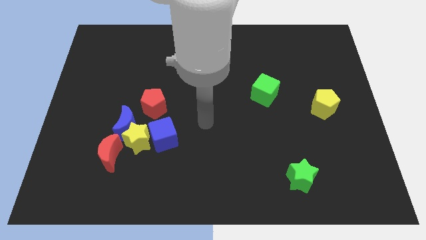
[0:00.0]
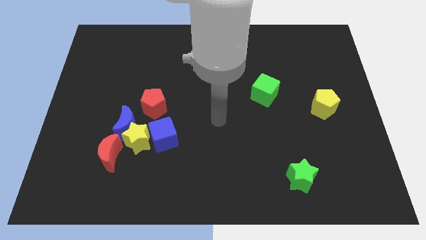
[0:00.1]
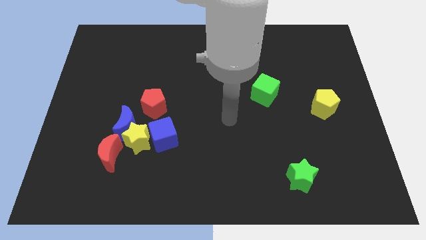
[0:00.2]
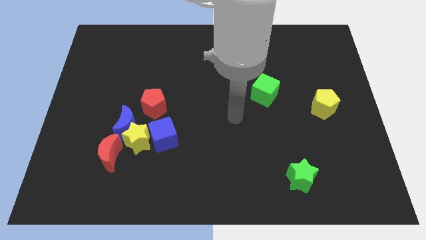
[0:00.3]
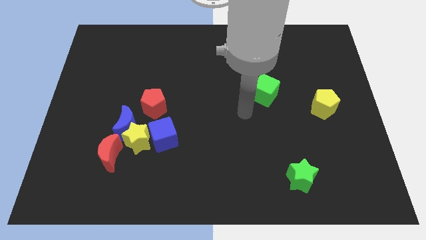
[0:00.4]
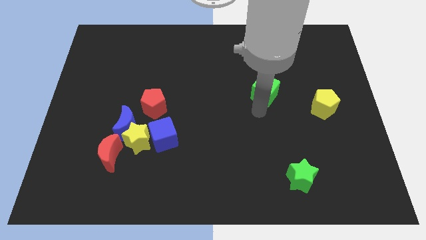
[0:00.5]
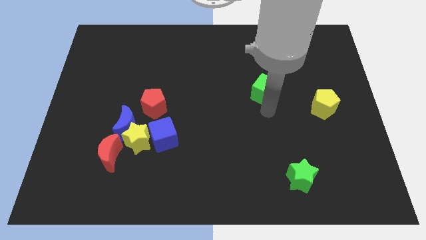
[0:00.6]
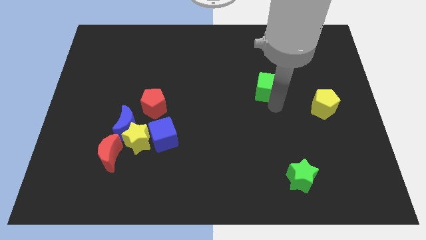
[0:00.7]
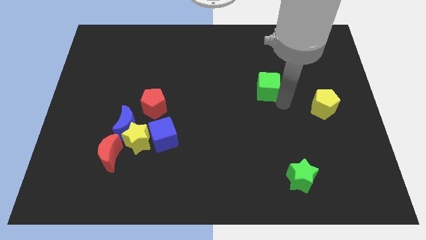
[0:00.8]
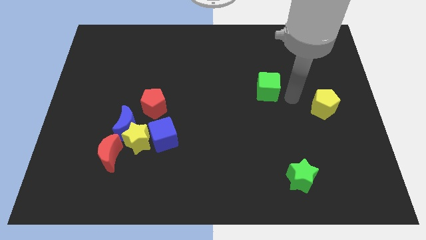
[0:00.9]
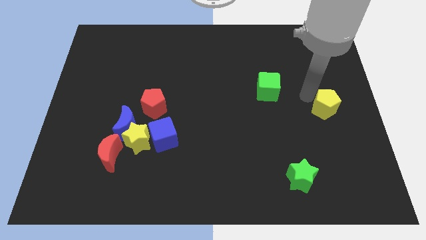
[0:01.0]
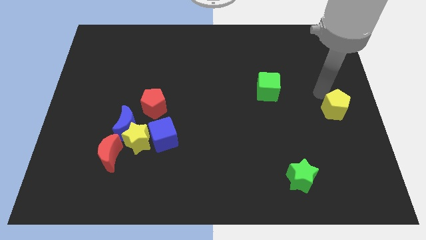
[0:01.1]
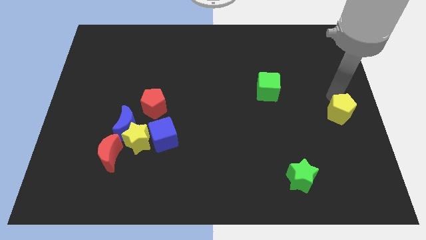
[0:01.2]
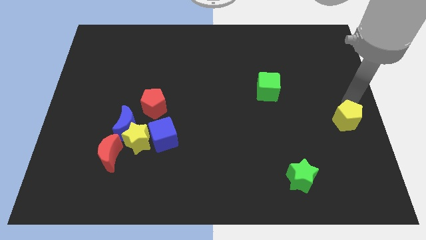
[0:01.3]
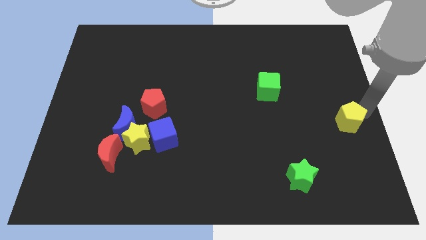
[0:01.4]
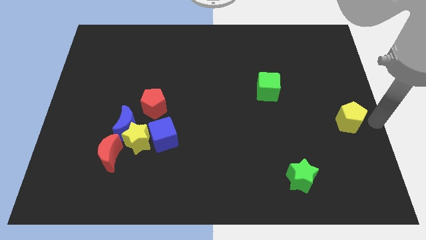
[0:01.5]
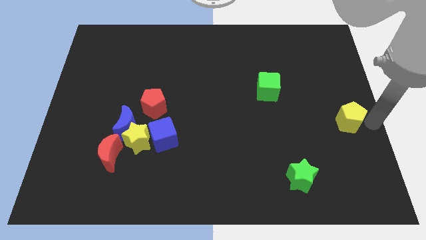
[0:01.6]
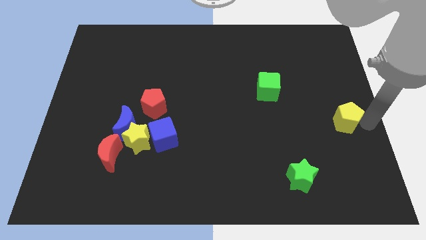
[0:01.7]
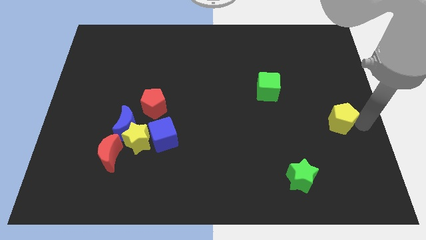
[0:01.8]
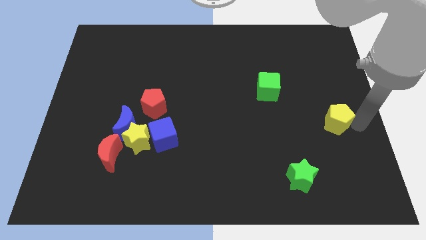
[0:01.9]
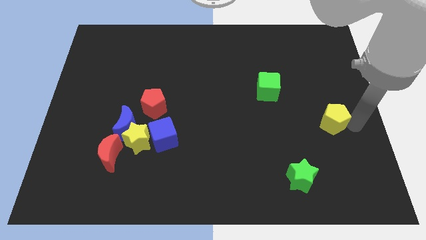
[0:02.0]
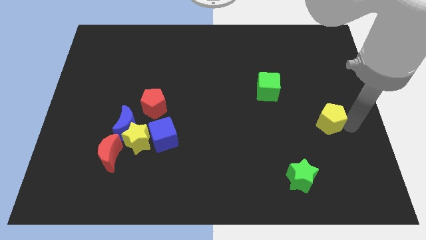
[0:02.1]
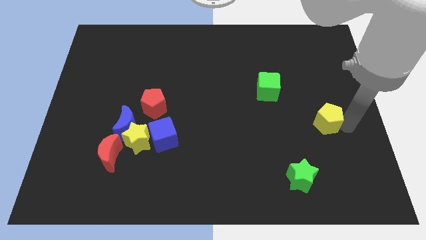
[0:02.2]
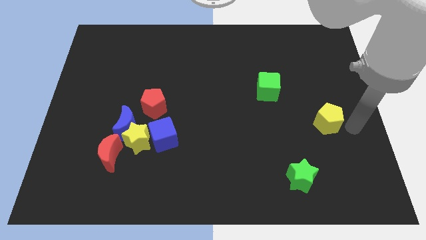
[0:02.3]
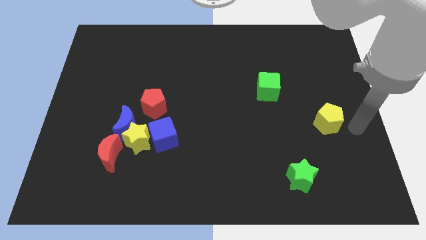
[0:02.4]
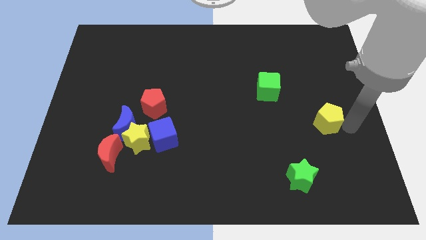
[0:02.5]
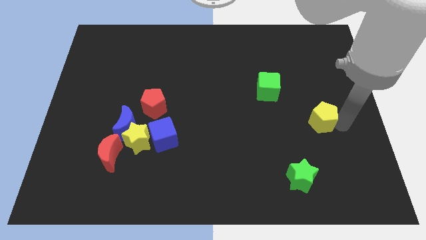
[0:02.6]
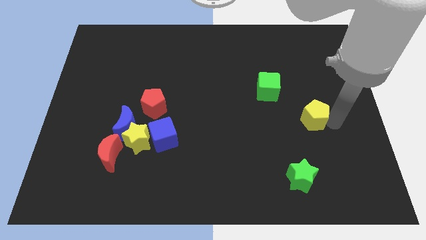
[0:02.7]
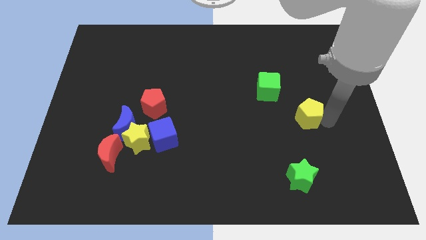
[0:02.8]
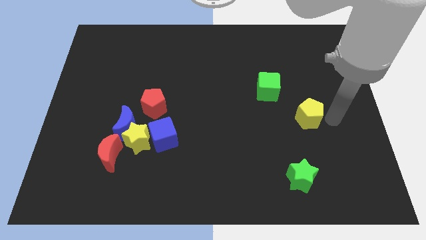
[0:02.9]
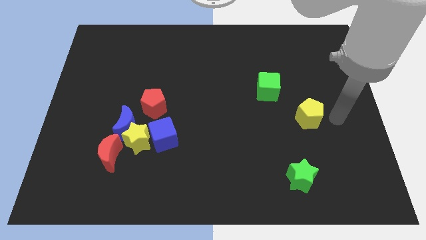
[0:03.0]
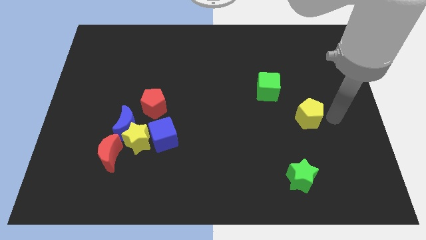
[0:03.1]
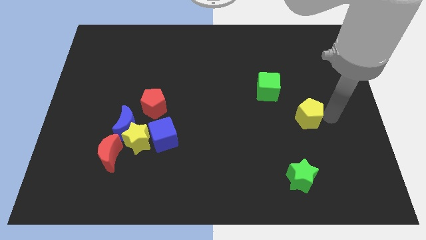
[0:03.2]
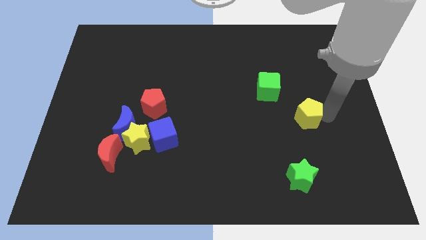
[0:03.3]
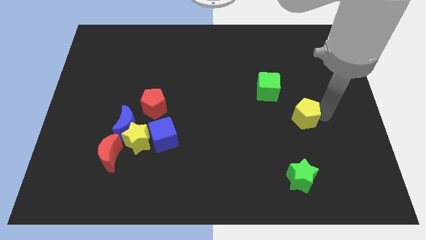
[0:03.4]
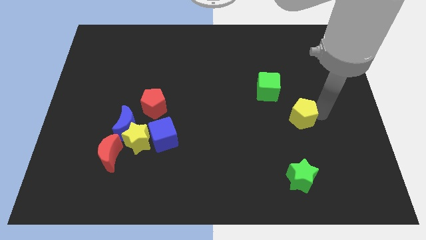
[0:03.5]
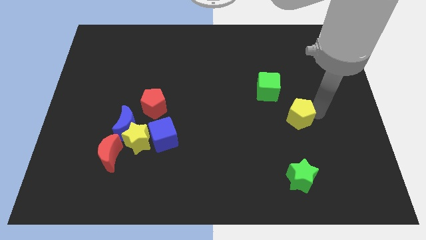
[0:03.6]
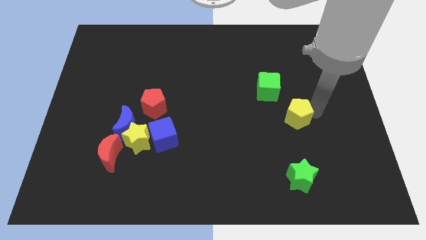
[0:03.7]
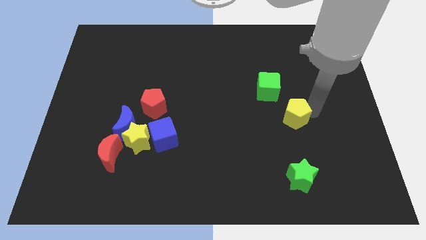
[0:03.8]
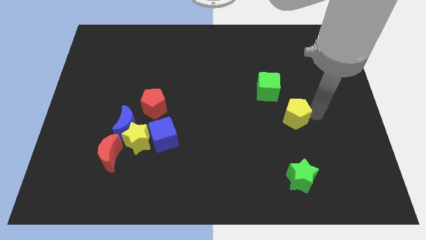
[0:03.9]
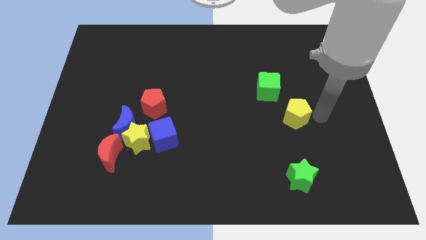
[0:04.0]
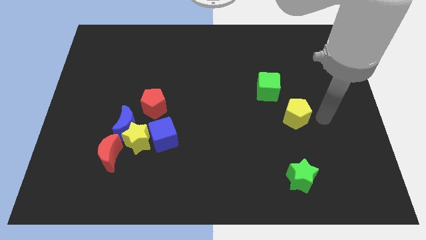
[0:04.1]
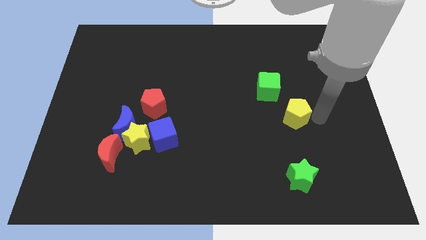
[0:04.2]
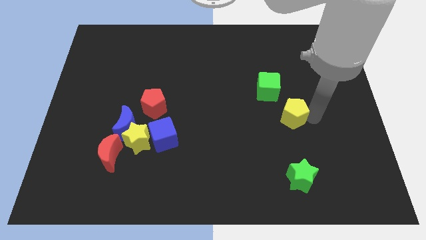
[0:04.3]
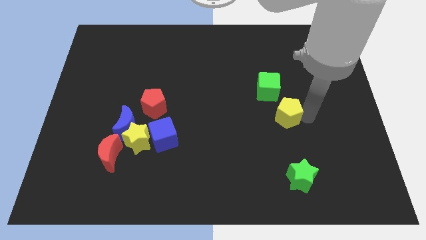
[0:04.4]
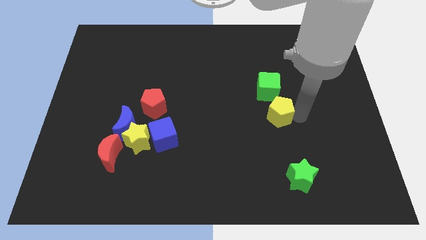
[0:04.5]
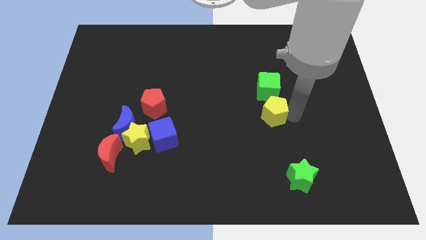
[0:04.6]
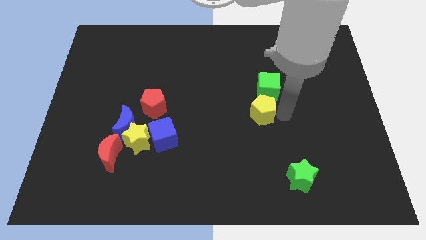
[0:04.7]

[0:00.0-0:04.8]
put the yellow pentagon to the middle

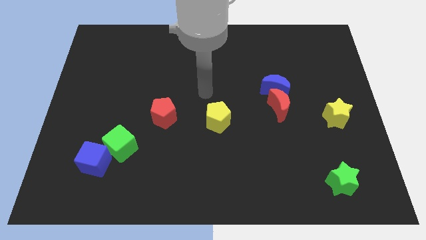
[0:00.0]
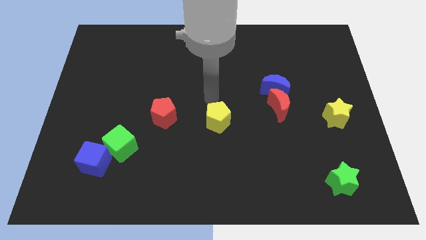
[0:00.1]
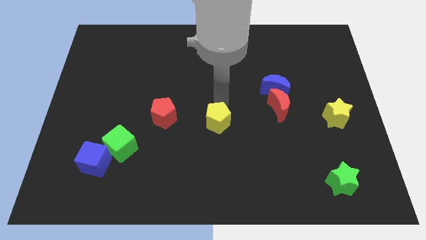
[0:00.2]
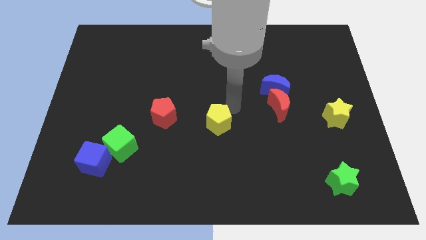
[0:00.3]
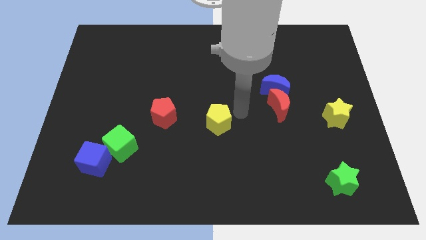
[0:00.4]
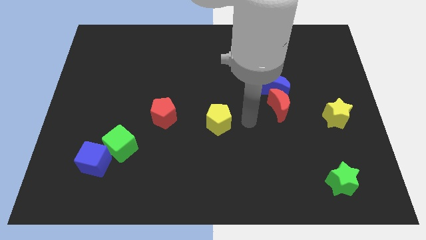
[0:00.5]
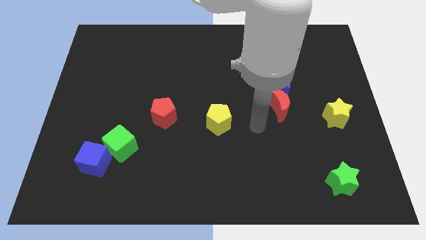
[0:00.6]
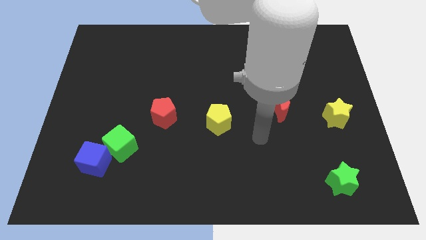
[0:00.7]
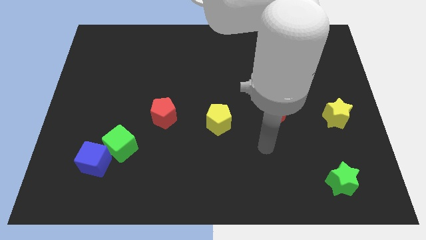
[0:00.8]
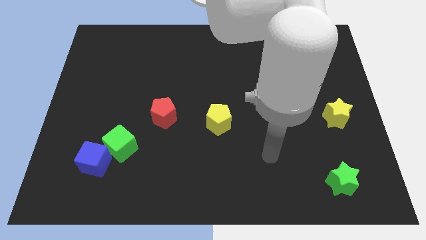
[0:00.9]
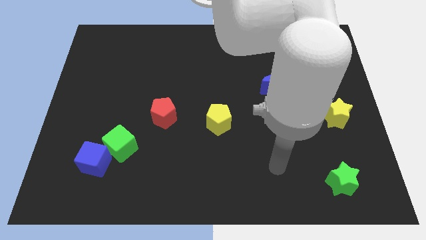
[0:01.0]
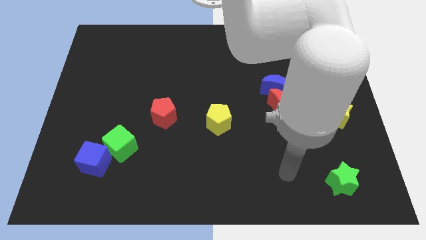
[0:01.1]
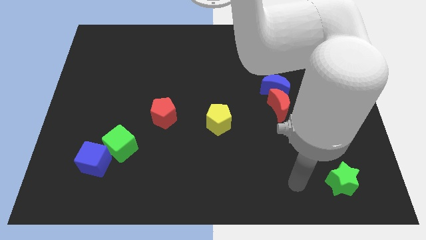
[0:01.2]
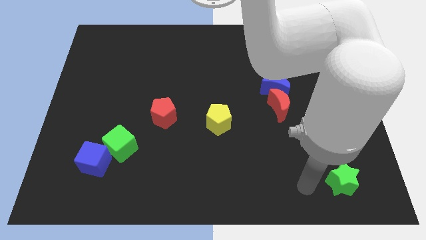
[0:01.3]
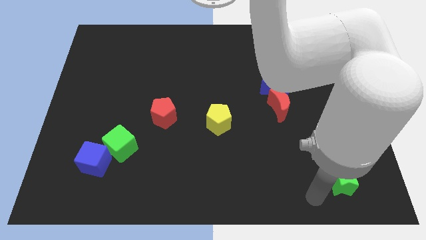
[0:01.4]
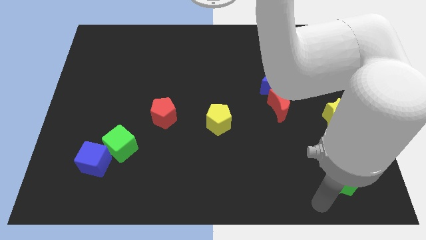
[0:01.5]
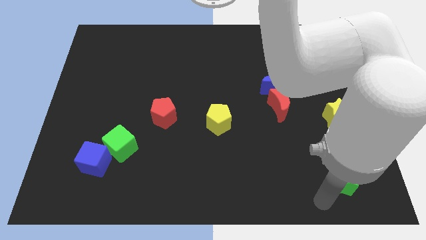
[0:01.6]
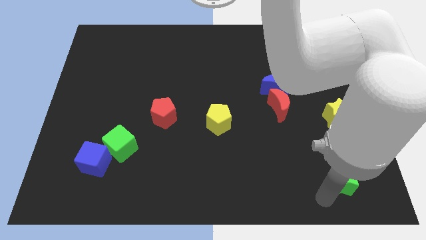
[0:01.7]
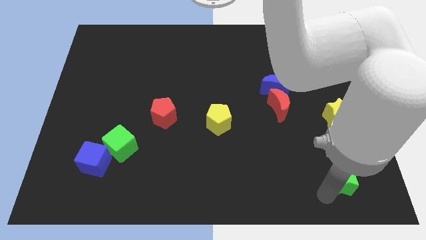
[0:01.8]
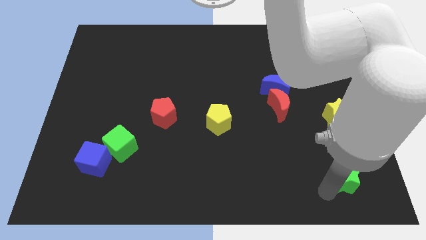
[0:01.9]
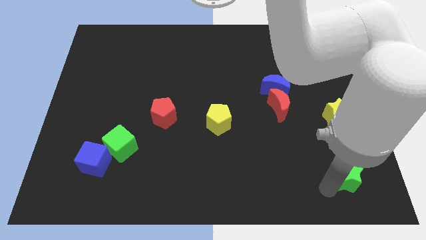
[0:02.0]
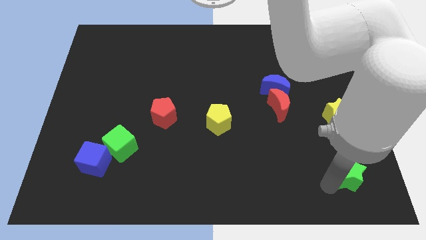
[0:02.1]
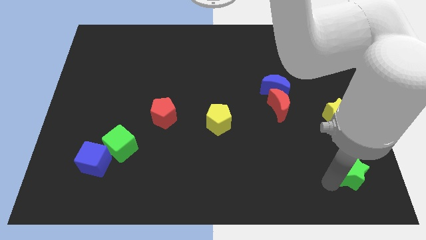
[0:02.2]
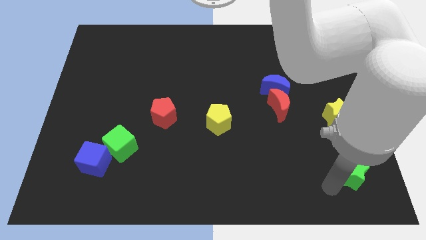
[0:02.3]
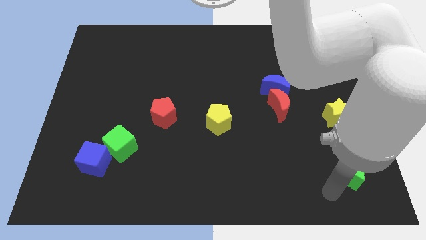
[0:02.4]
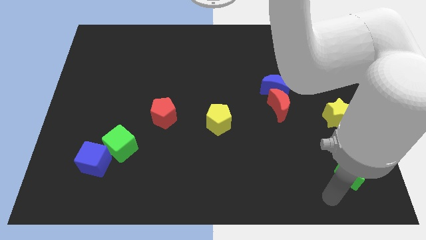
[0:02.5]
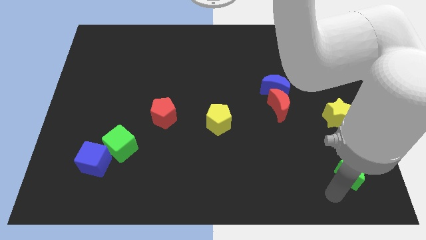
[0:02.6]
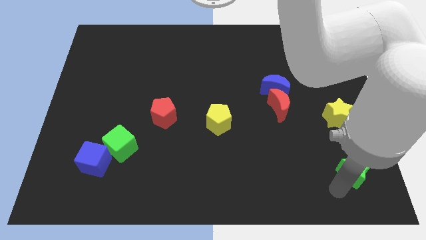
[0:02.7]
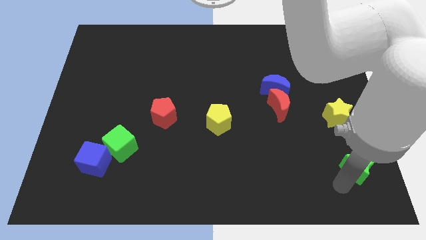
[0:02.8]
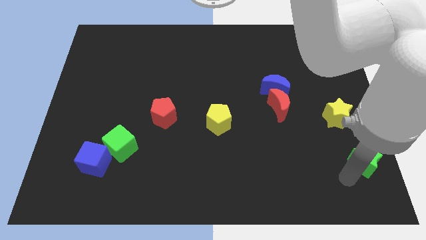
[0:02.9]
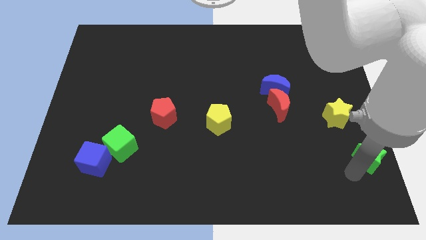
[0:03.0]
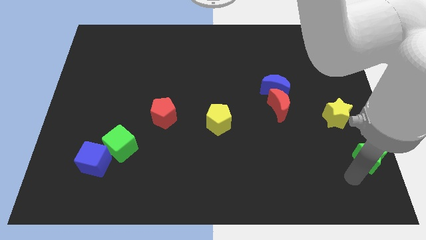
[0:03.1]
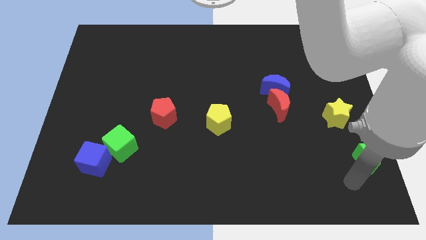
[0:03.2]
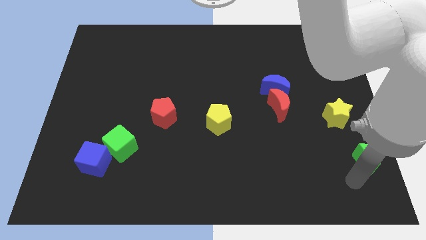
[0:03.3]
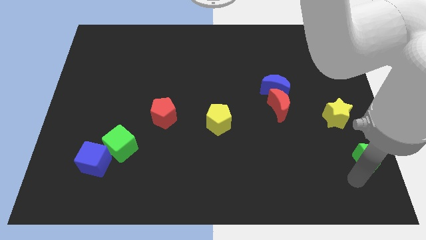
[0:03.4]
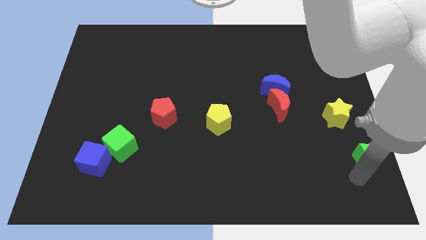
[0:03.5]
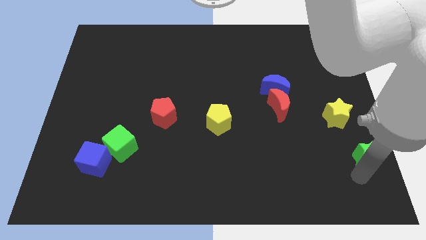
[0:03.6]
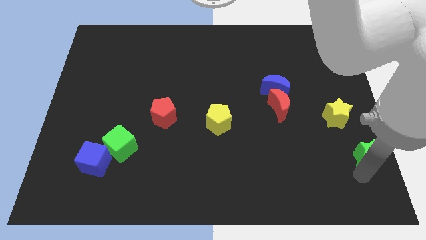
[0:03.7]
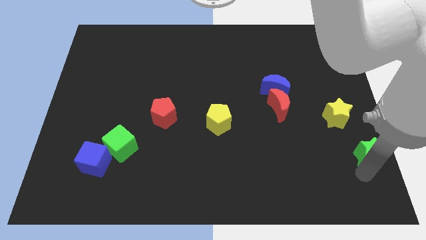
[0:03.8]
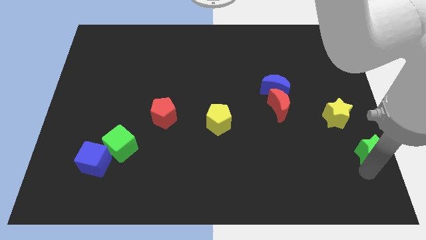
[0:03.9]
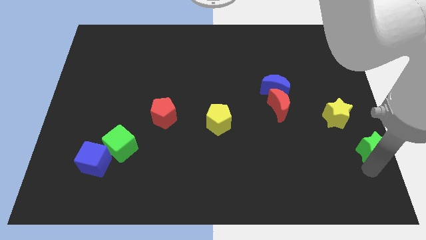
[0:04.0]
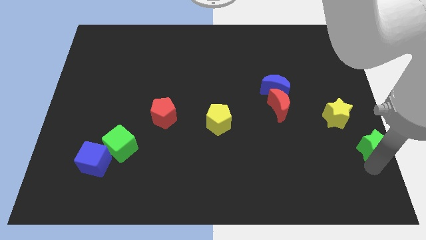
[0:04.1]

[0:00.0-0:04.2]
put the green star to the center right
